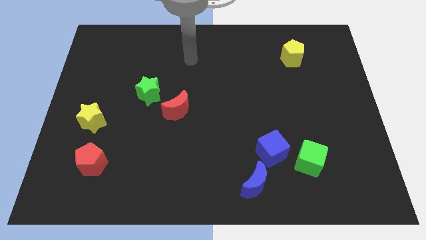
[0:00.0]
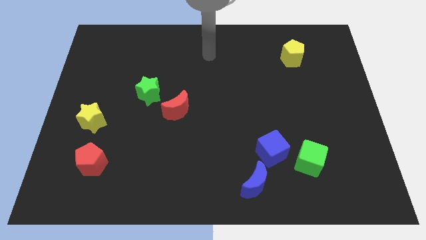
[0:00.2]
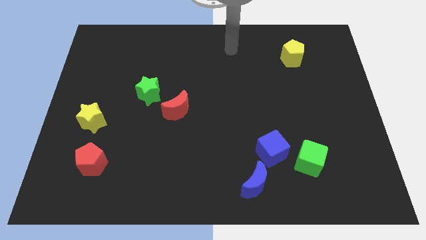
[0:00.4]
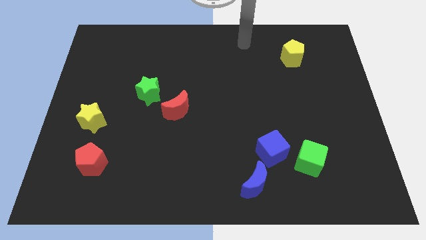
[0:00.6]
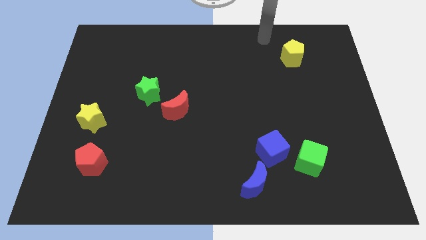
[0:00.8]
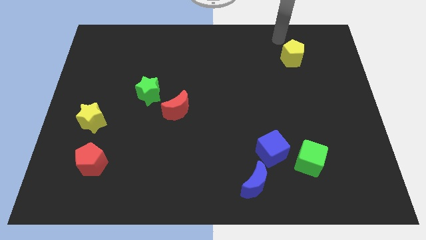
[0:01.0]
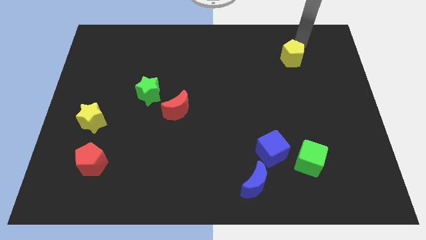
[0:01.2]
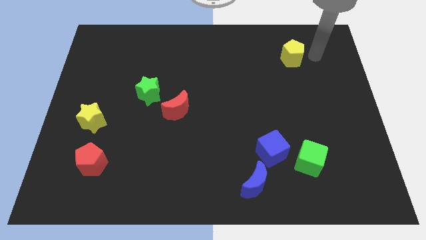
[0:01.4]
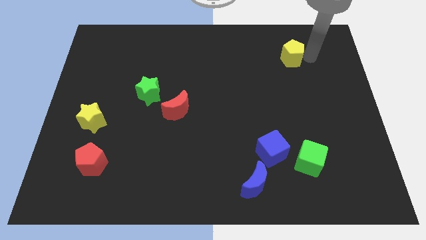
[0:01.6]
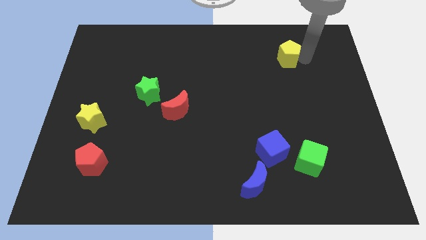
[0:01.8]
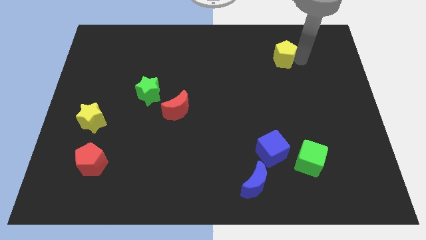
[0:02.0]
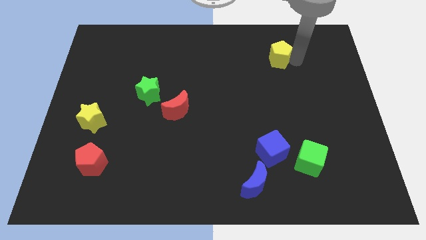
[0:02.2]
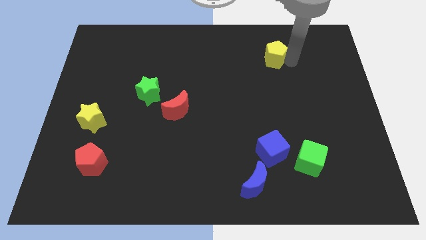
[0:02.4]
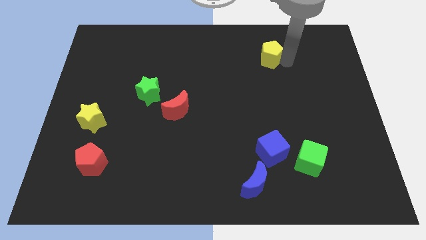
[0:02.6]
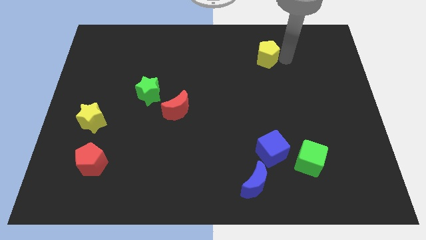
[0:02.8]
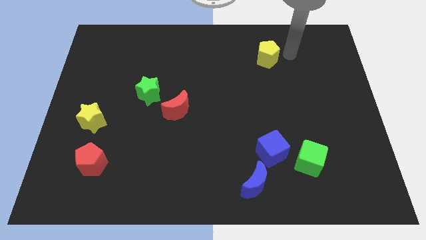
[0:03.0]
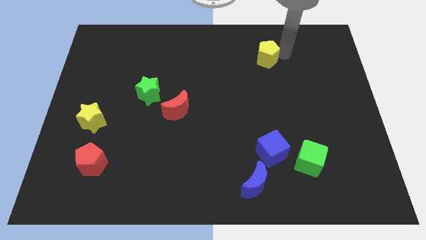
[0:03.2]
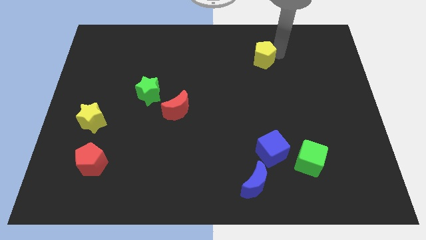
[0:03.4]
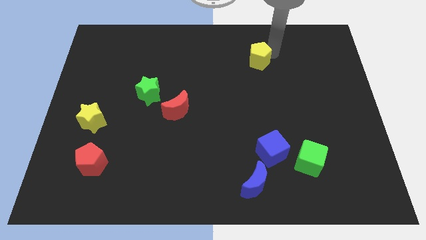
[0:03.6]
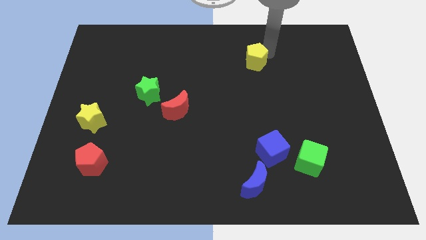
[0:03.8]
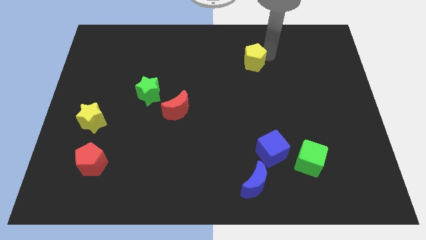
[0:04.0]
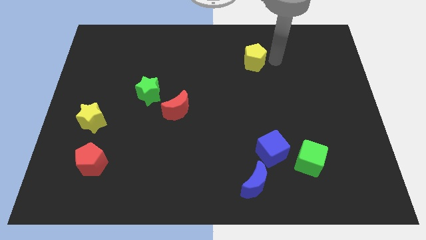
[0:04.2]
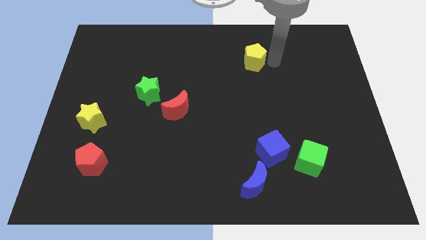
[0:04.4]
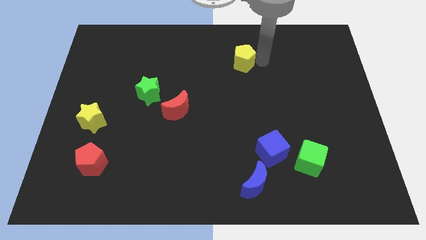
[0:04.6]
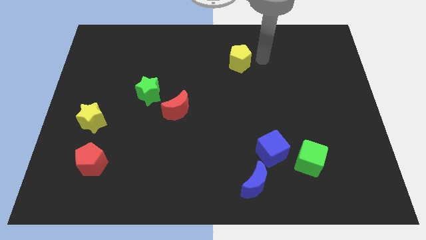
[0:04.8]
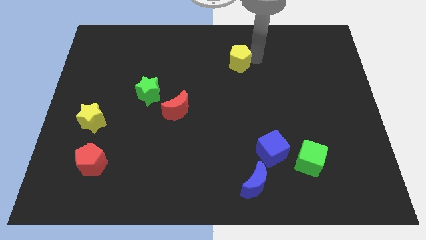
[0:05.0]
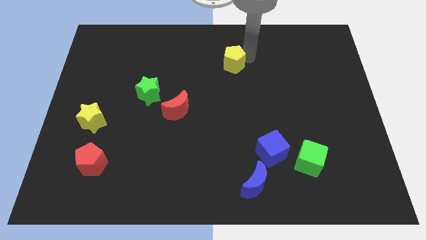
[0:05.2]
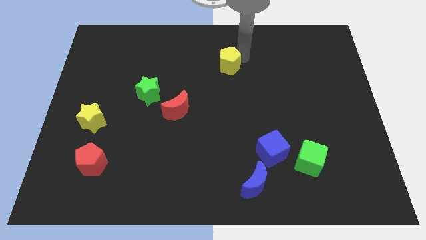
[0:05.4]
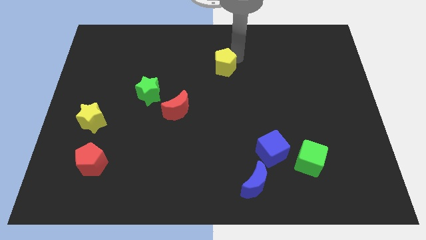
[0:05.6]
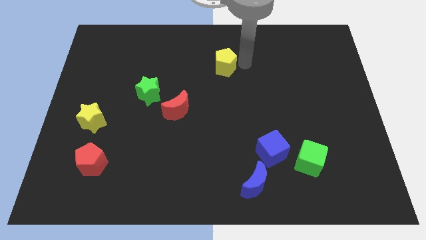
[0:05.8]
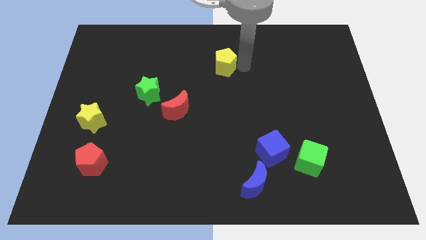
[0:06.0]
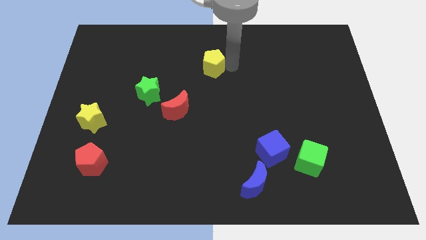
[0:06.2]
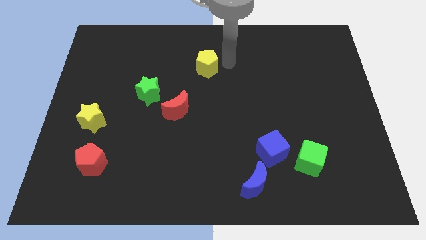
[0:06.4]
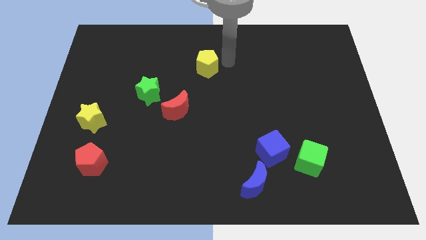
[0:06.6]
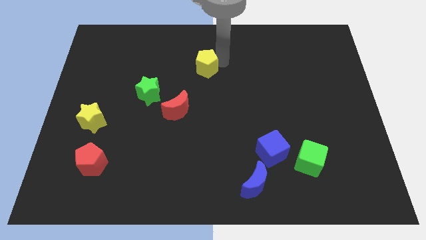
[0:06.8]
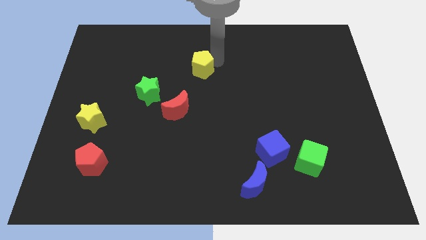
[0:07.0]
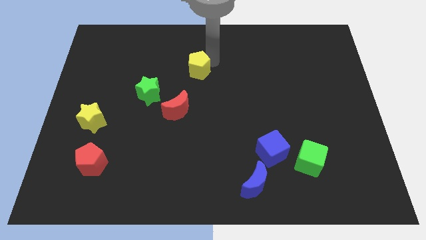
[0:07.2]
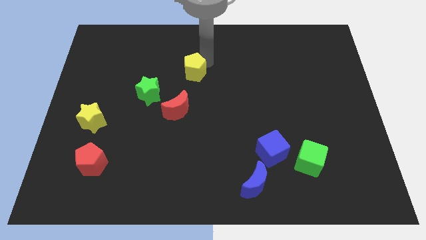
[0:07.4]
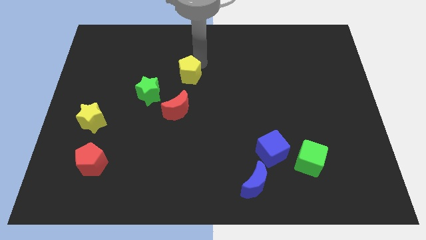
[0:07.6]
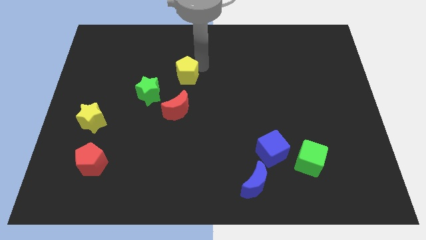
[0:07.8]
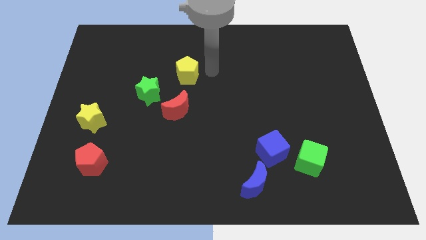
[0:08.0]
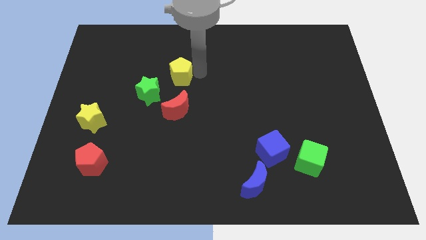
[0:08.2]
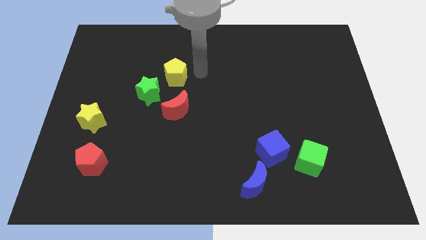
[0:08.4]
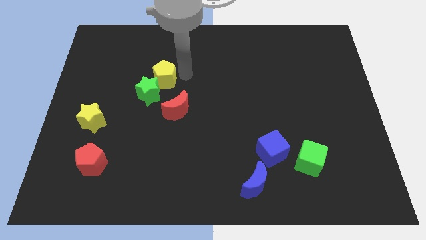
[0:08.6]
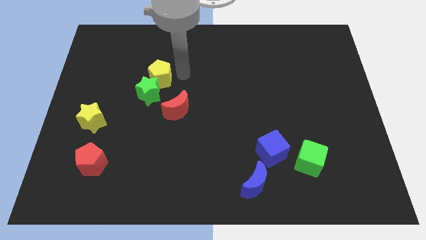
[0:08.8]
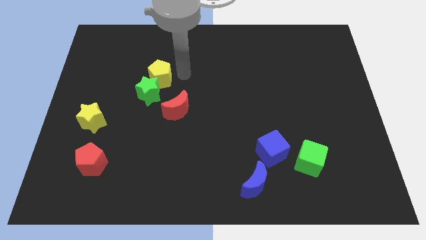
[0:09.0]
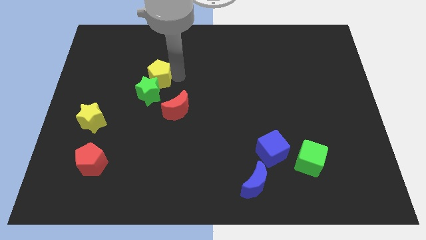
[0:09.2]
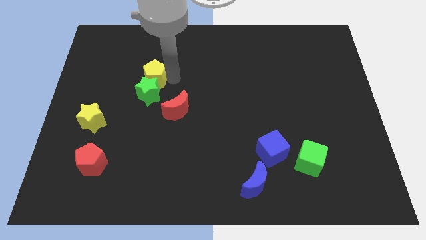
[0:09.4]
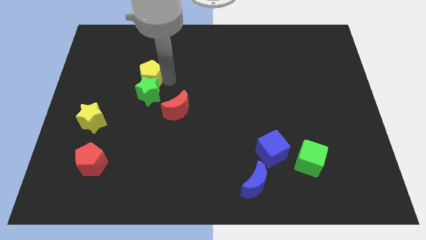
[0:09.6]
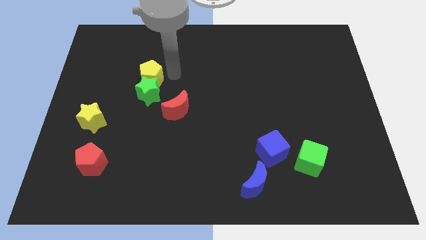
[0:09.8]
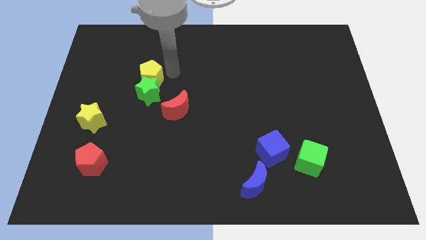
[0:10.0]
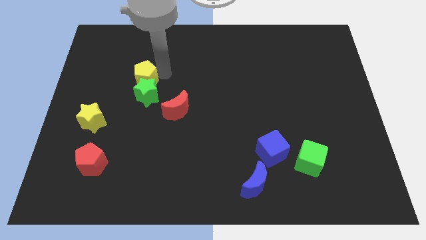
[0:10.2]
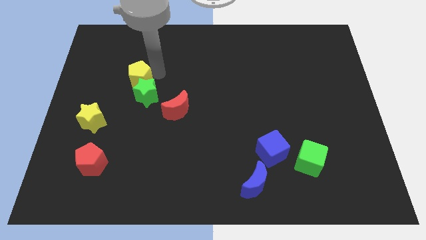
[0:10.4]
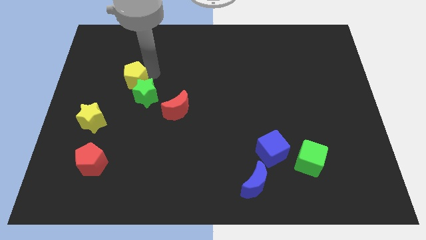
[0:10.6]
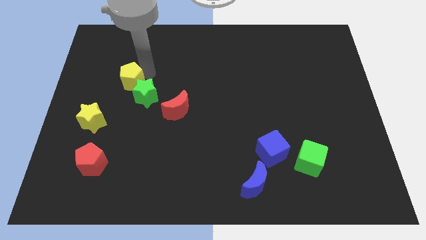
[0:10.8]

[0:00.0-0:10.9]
put the yellow pentagon just left of the green star

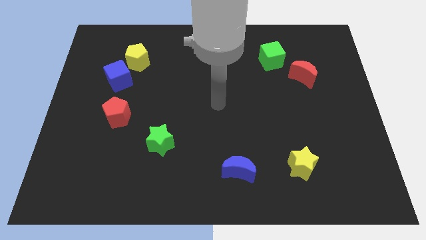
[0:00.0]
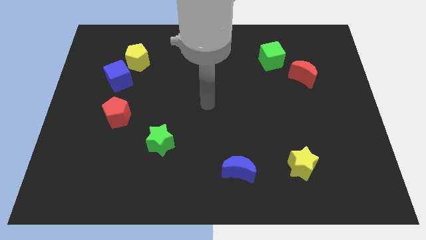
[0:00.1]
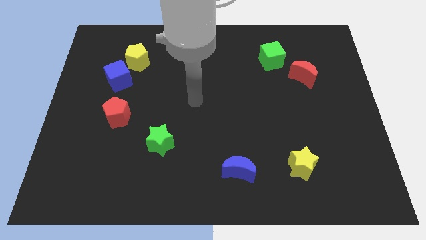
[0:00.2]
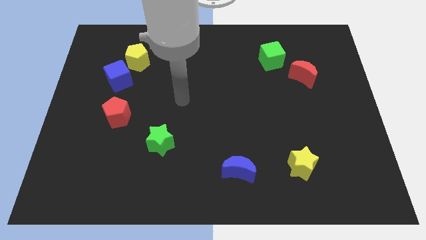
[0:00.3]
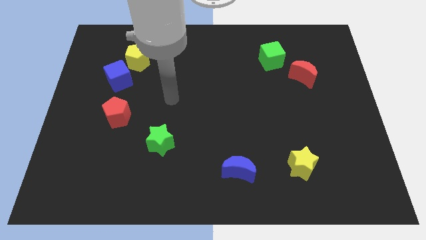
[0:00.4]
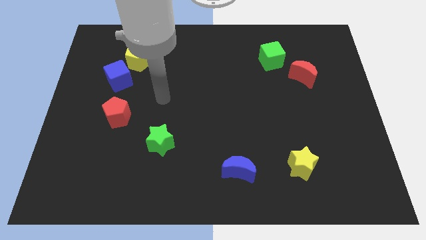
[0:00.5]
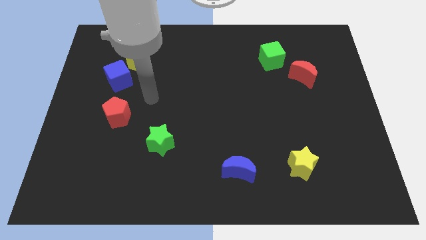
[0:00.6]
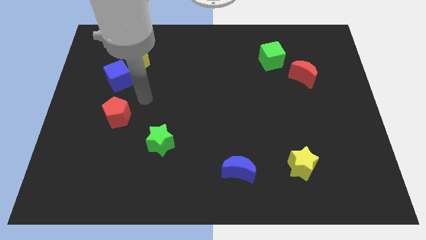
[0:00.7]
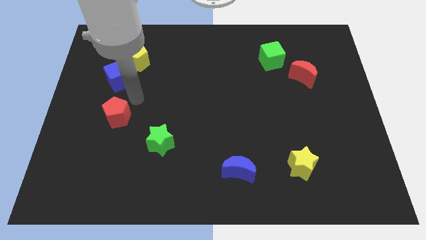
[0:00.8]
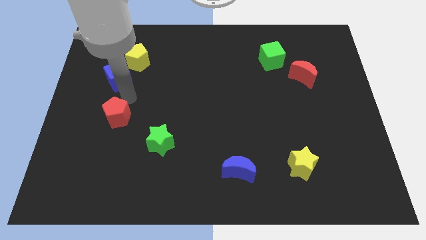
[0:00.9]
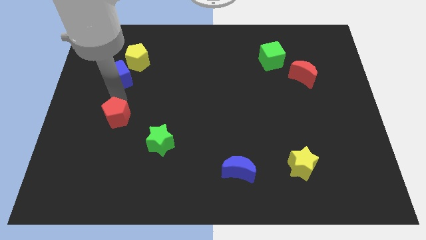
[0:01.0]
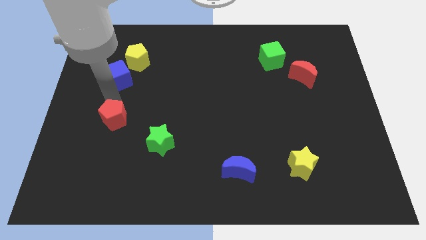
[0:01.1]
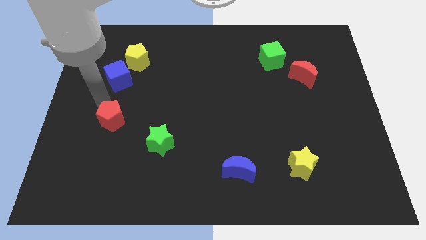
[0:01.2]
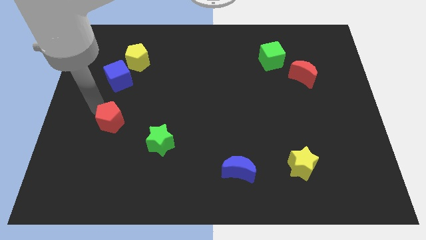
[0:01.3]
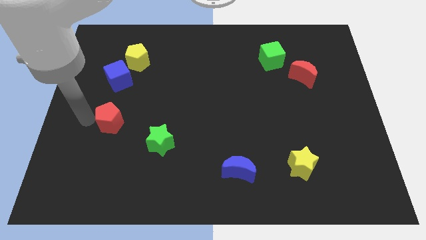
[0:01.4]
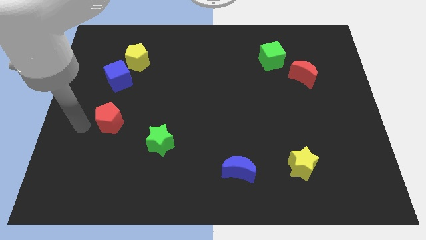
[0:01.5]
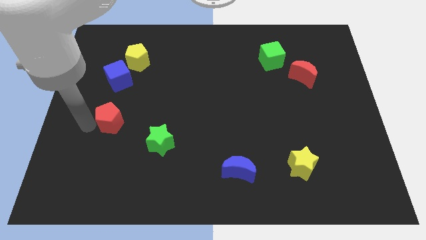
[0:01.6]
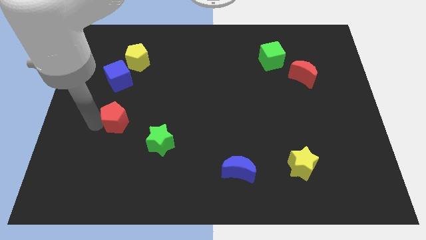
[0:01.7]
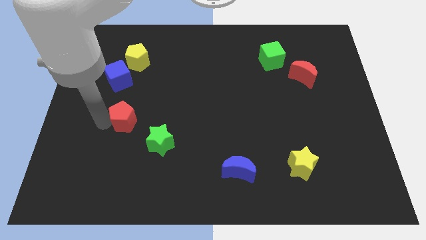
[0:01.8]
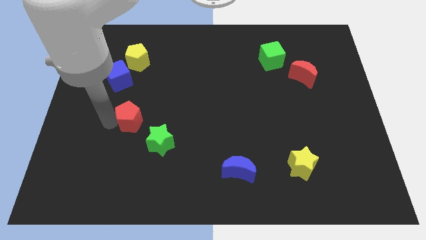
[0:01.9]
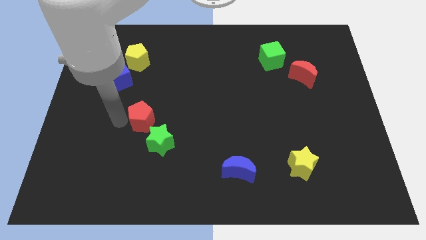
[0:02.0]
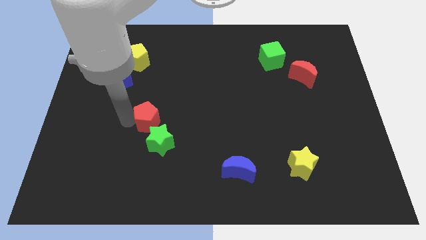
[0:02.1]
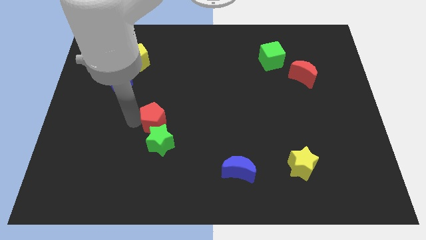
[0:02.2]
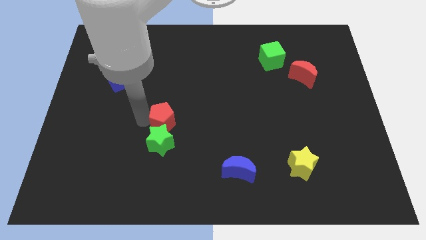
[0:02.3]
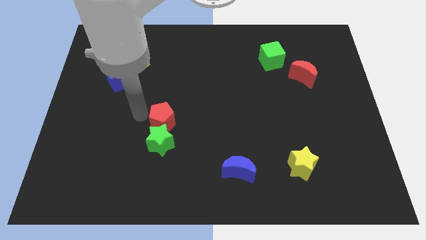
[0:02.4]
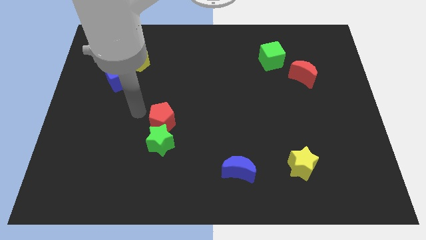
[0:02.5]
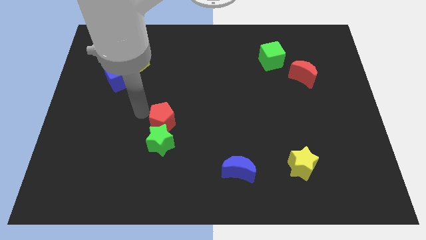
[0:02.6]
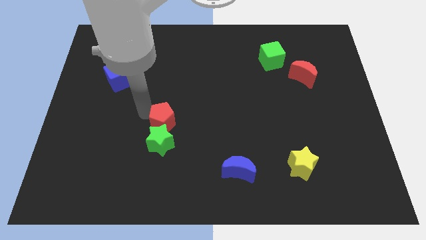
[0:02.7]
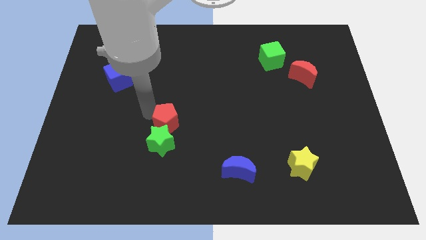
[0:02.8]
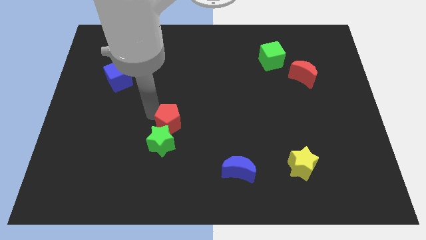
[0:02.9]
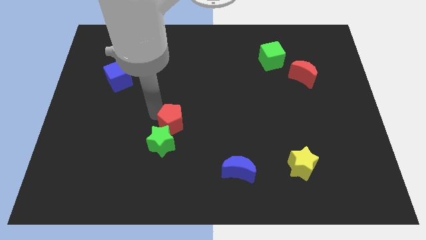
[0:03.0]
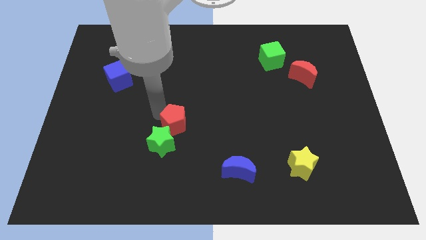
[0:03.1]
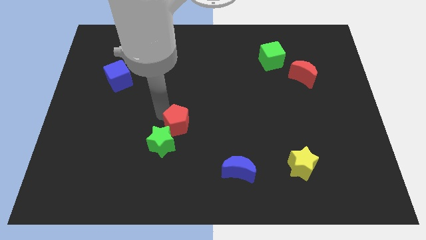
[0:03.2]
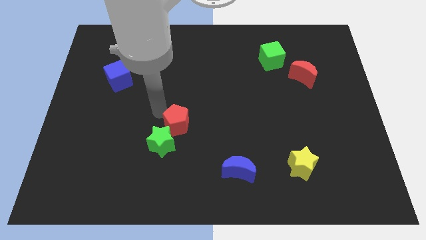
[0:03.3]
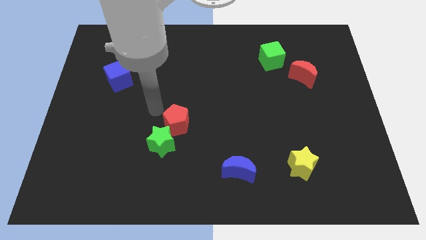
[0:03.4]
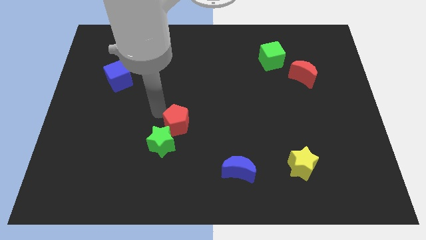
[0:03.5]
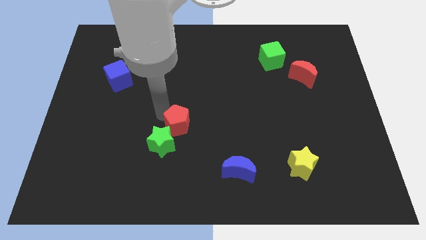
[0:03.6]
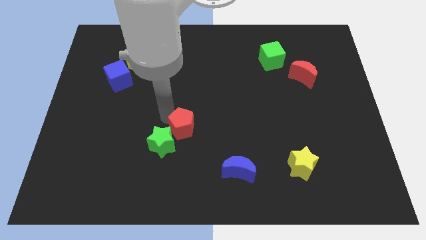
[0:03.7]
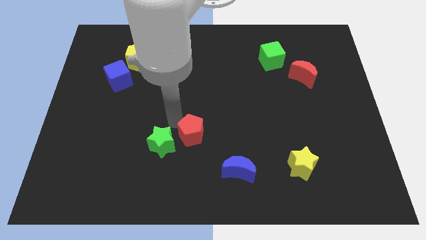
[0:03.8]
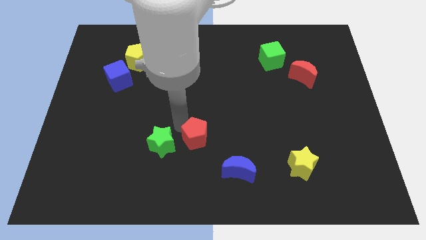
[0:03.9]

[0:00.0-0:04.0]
put the red pentagon diagonally up and to the left of the blue moon
